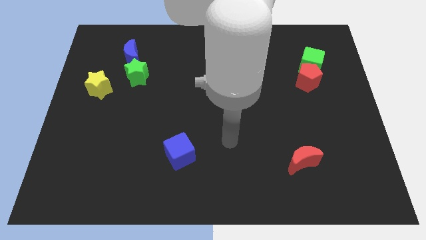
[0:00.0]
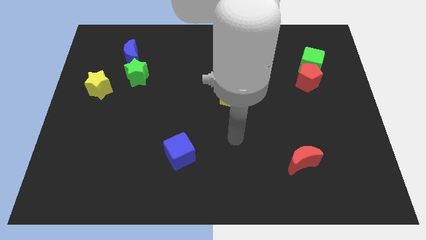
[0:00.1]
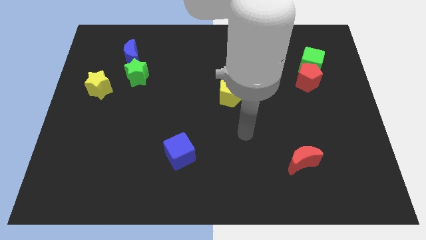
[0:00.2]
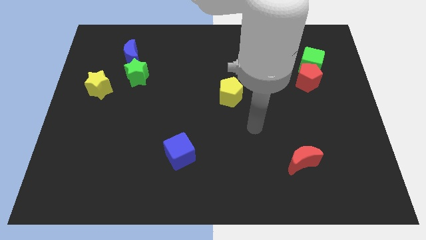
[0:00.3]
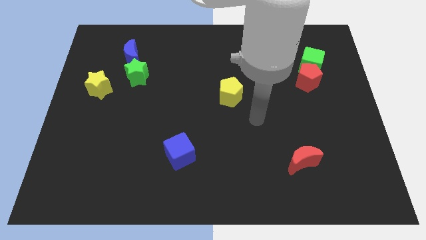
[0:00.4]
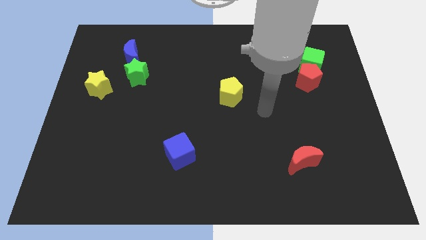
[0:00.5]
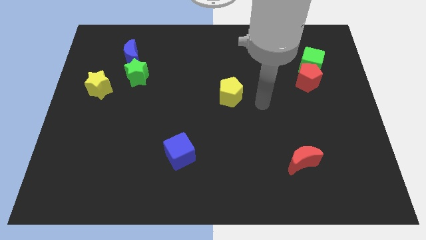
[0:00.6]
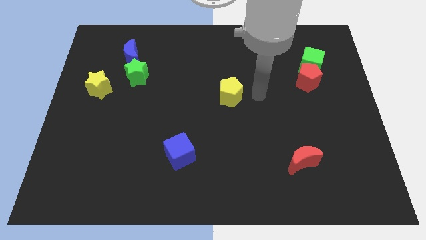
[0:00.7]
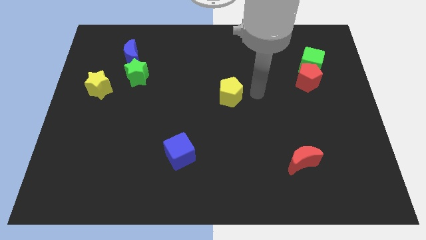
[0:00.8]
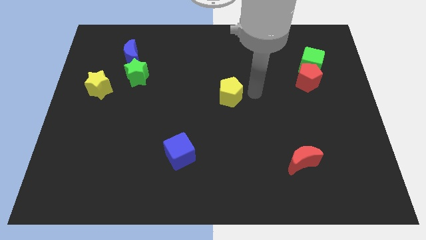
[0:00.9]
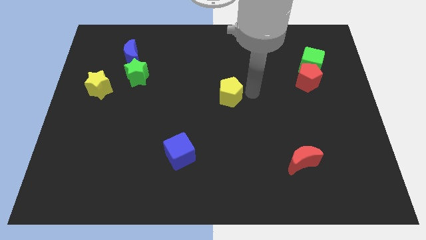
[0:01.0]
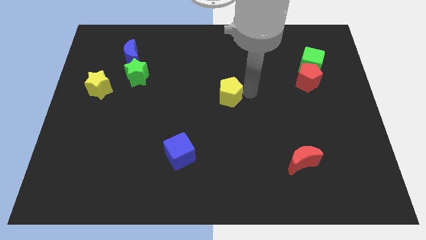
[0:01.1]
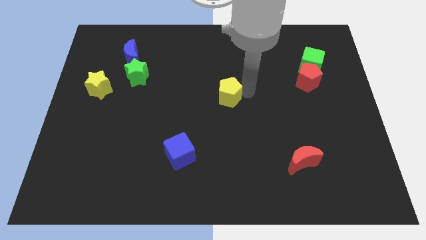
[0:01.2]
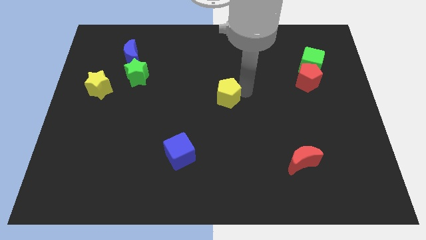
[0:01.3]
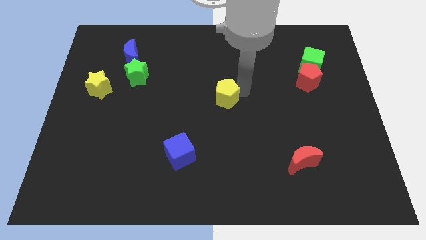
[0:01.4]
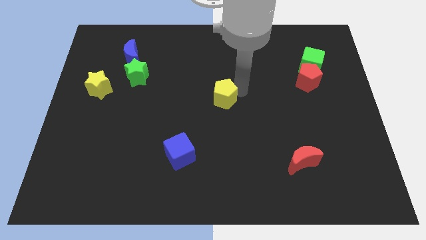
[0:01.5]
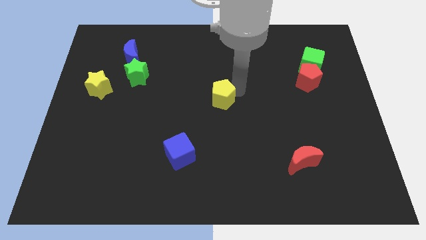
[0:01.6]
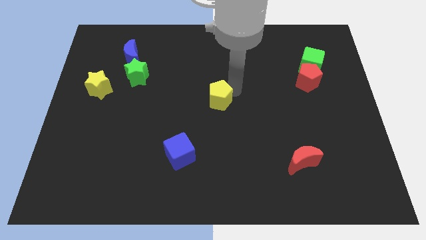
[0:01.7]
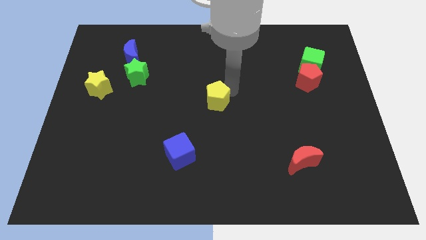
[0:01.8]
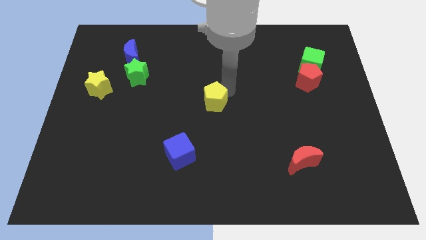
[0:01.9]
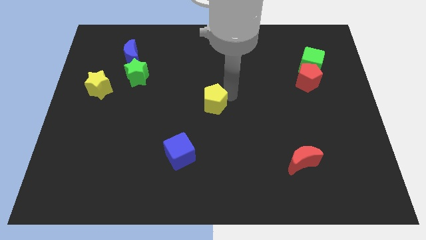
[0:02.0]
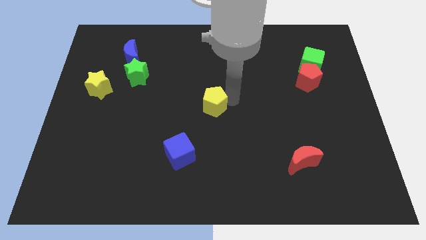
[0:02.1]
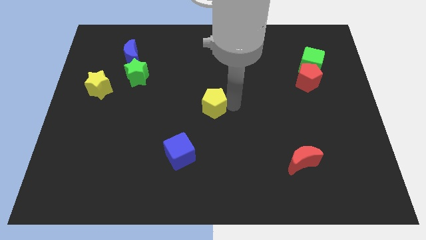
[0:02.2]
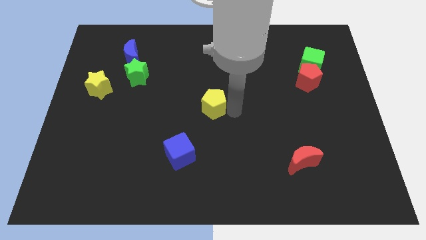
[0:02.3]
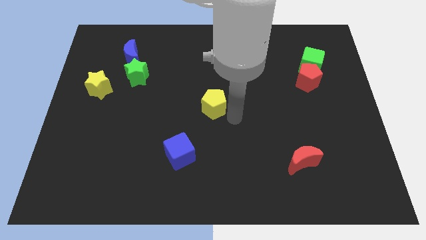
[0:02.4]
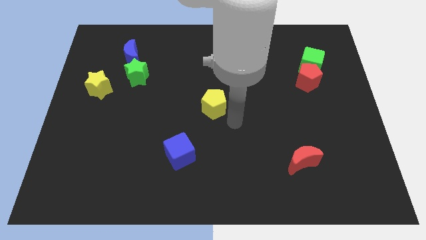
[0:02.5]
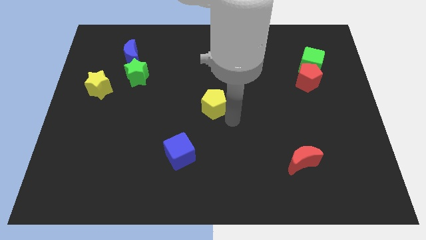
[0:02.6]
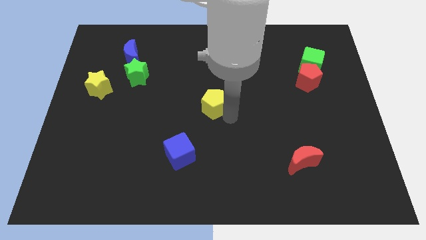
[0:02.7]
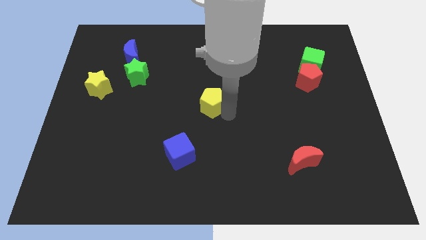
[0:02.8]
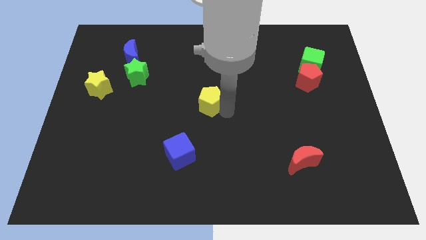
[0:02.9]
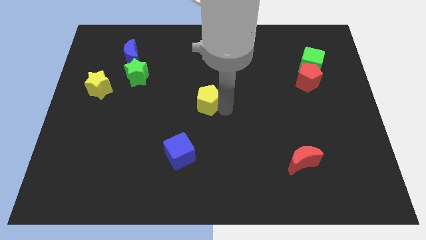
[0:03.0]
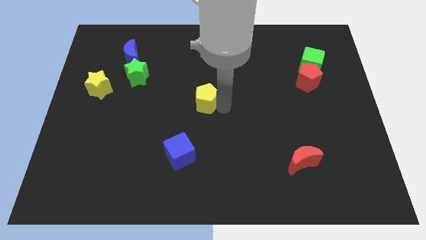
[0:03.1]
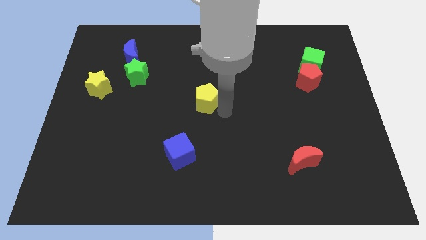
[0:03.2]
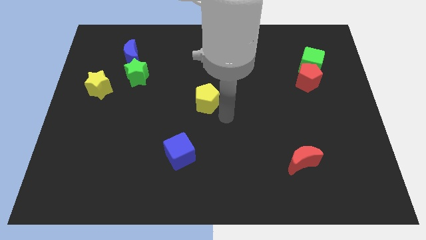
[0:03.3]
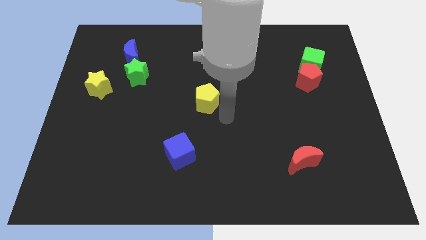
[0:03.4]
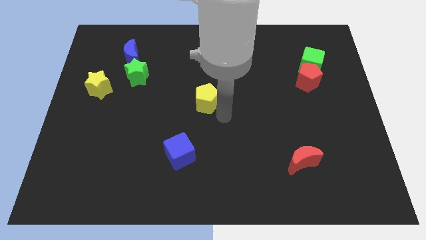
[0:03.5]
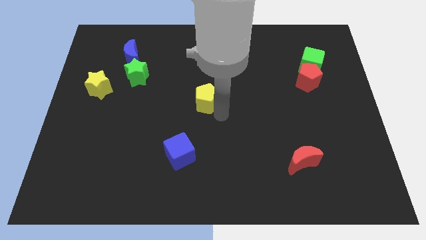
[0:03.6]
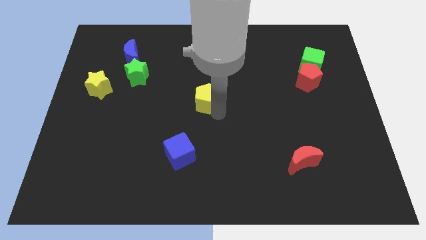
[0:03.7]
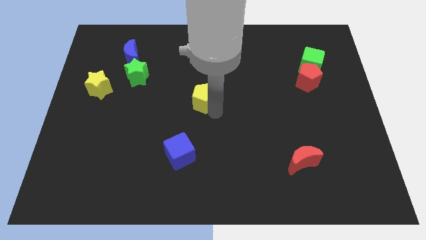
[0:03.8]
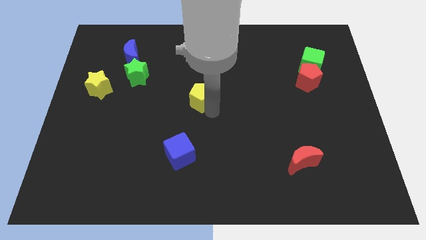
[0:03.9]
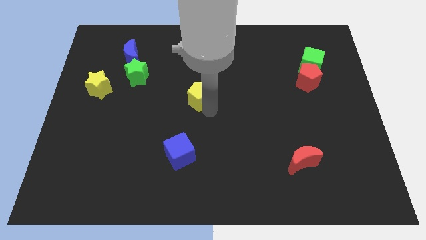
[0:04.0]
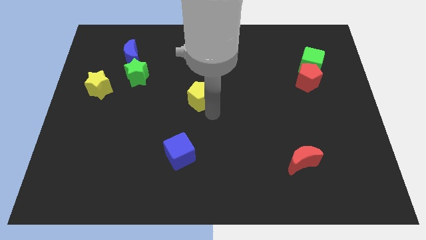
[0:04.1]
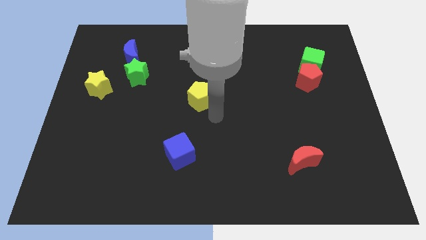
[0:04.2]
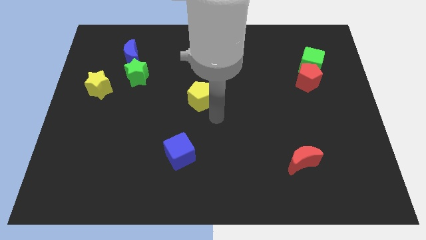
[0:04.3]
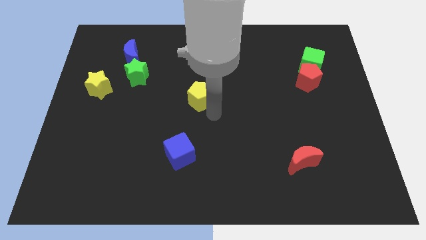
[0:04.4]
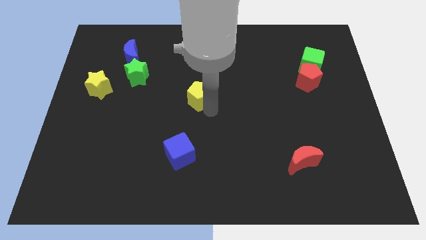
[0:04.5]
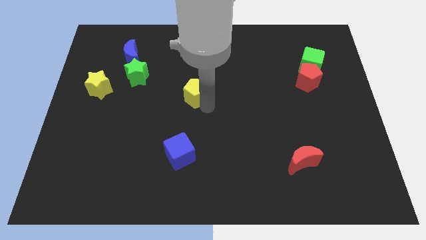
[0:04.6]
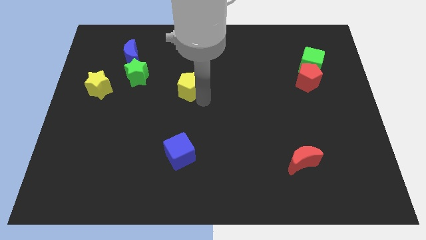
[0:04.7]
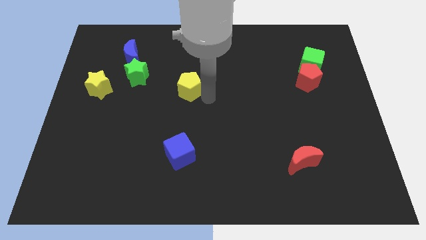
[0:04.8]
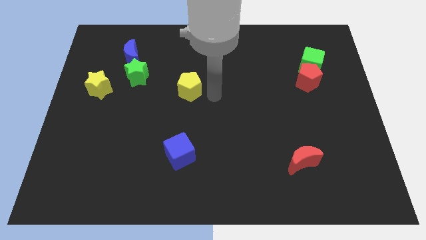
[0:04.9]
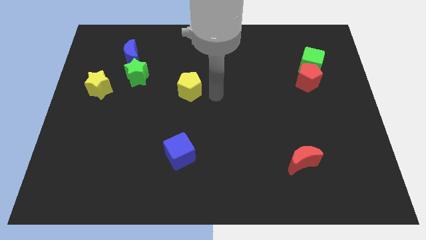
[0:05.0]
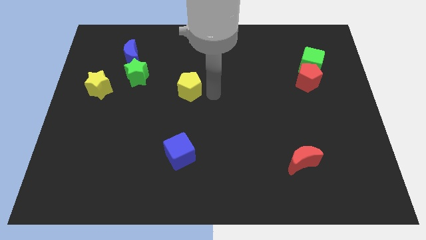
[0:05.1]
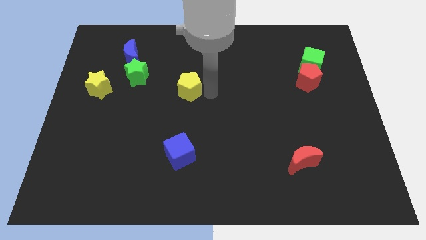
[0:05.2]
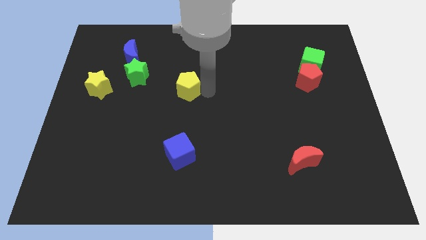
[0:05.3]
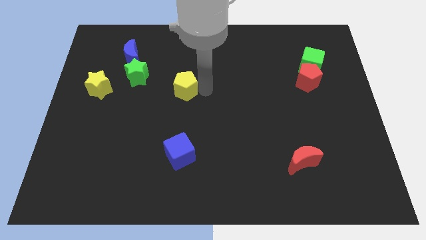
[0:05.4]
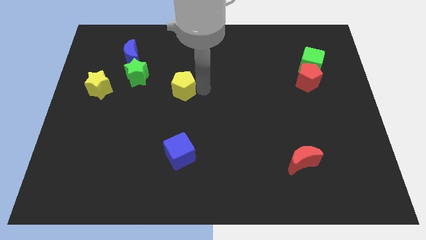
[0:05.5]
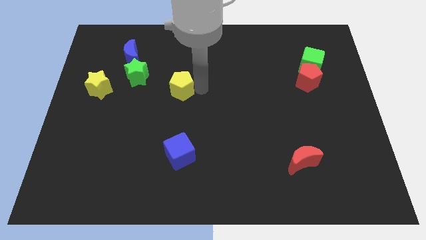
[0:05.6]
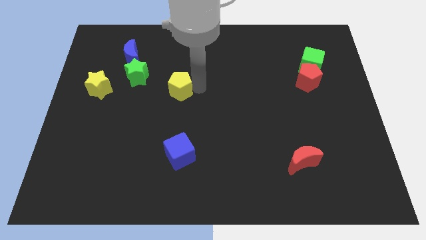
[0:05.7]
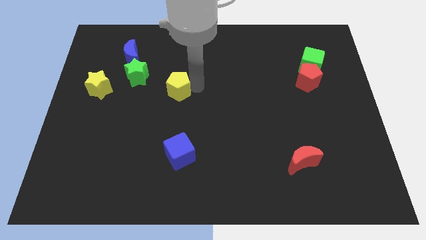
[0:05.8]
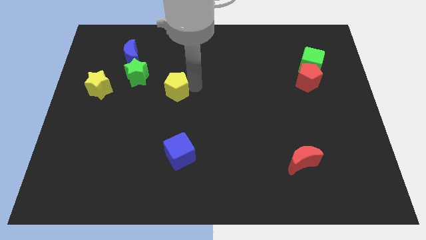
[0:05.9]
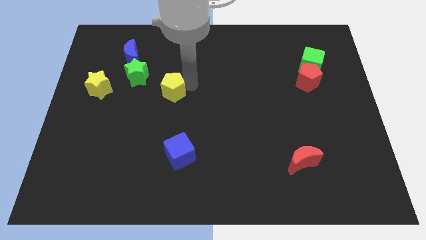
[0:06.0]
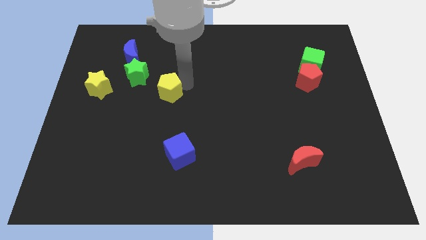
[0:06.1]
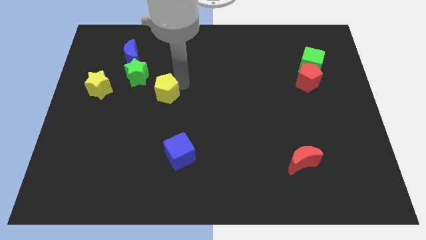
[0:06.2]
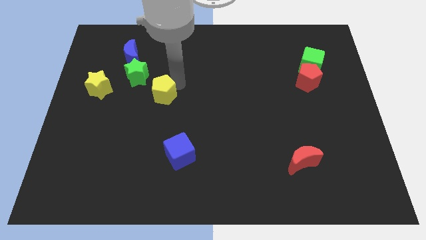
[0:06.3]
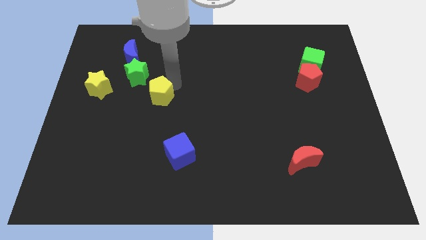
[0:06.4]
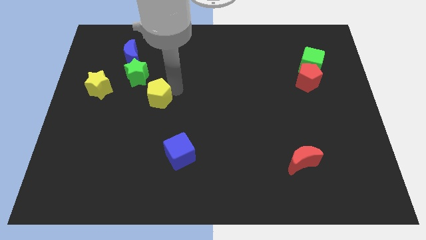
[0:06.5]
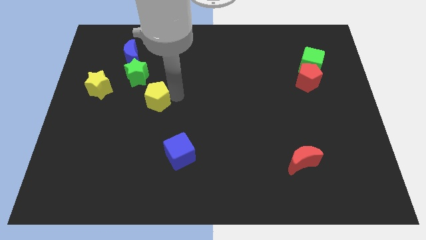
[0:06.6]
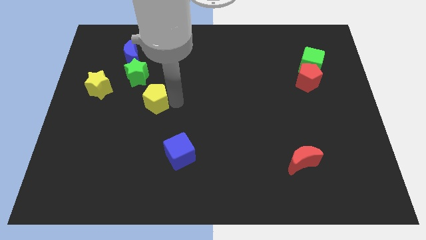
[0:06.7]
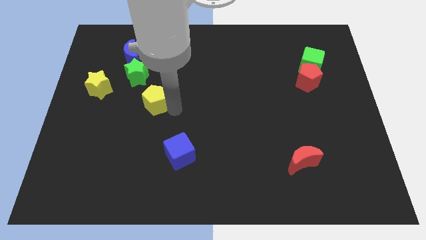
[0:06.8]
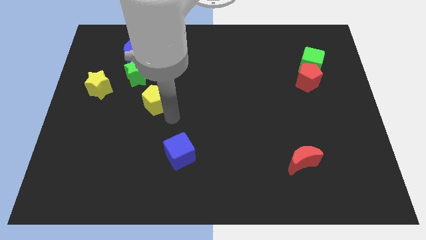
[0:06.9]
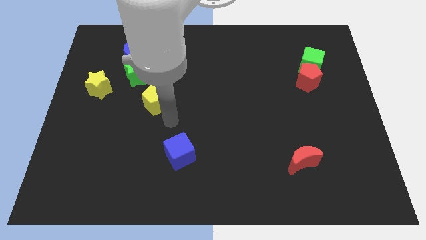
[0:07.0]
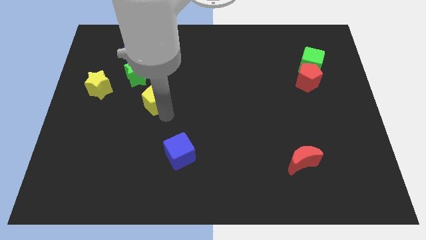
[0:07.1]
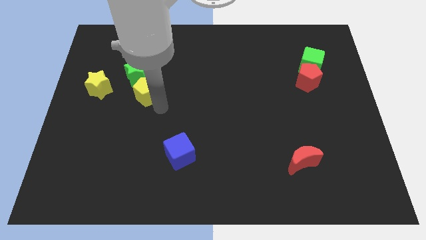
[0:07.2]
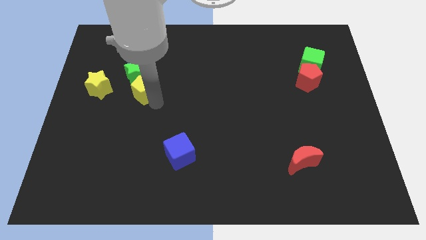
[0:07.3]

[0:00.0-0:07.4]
put the yellow pentagon towards the green star
